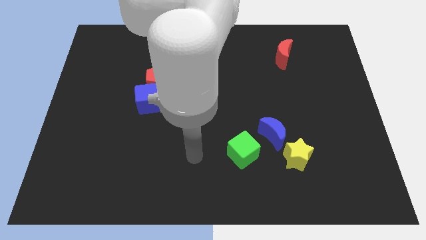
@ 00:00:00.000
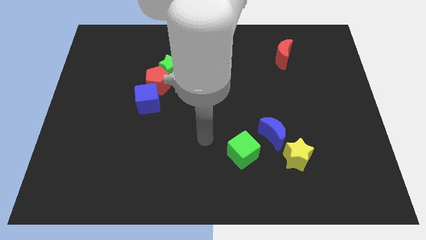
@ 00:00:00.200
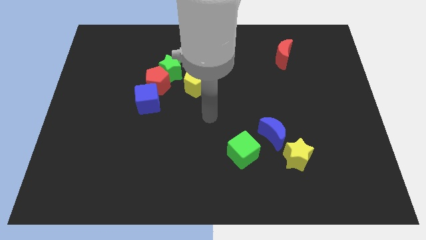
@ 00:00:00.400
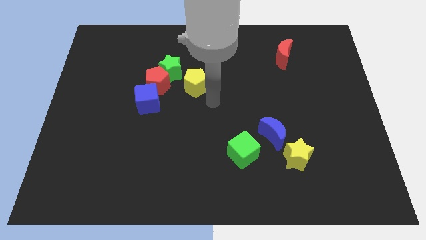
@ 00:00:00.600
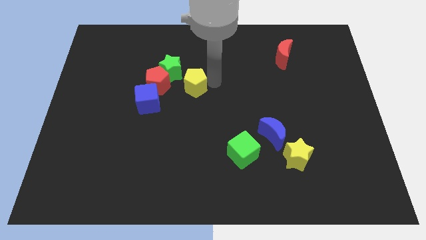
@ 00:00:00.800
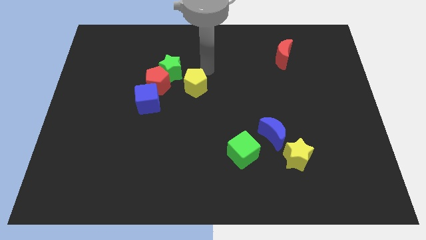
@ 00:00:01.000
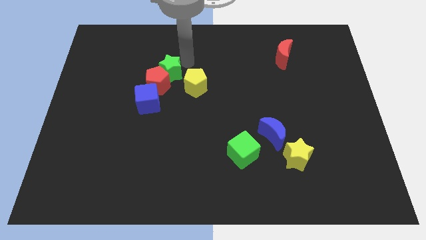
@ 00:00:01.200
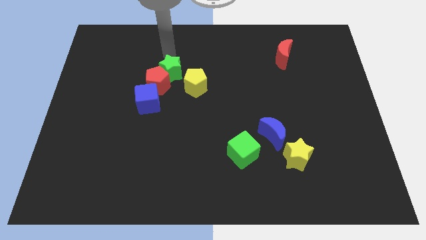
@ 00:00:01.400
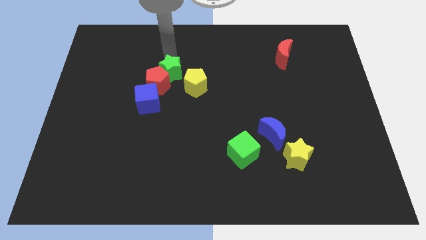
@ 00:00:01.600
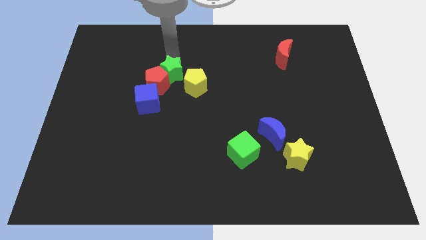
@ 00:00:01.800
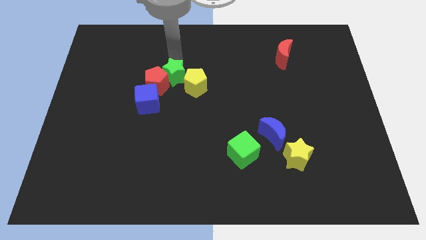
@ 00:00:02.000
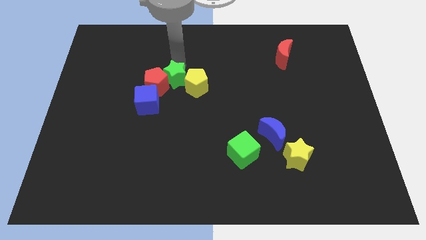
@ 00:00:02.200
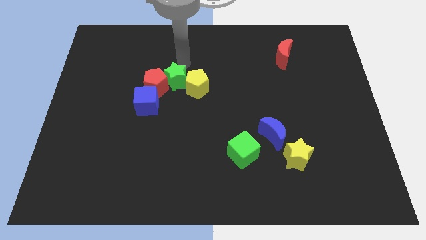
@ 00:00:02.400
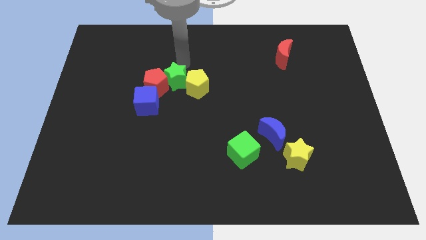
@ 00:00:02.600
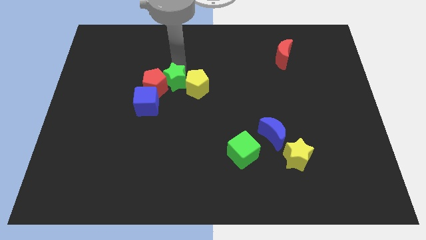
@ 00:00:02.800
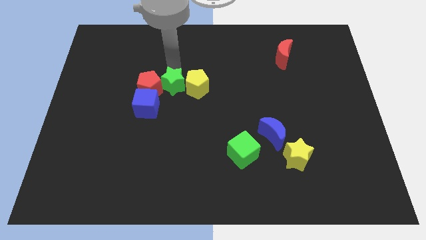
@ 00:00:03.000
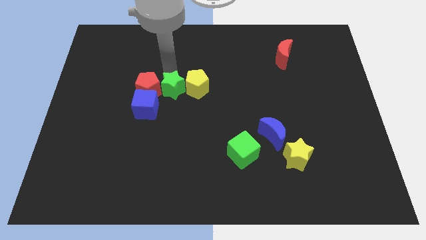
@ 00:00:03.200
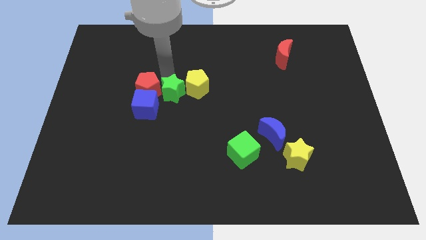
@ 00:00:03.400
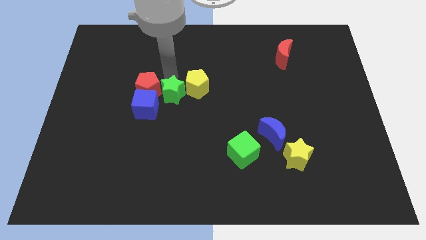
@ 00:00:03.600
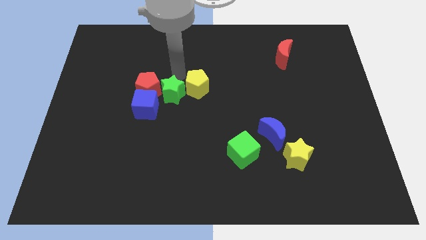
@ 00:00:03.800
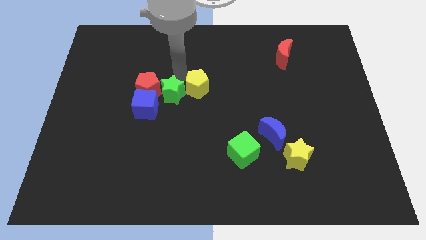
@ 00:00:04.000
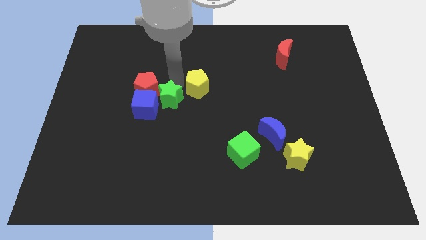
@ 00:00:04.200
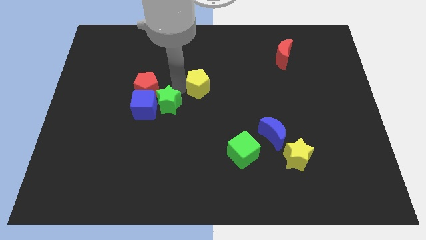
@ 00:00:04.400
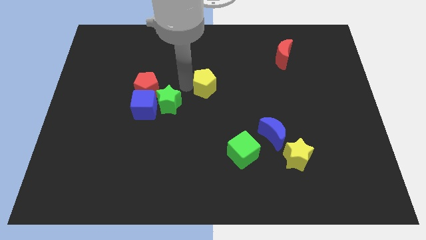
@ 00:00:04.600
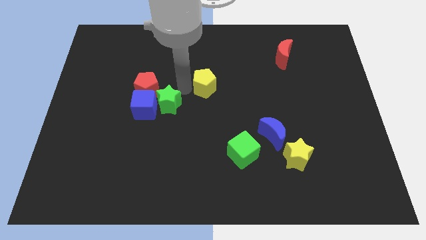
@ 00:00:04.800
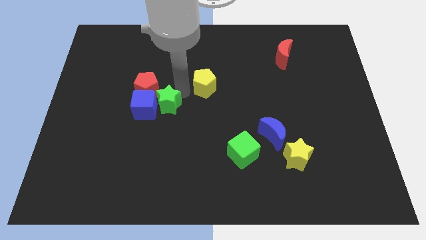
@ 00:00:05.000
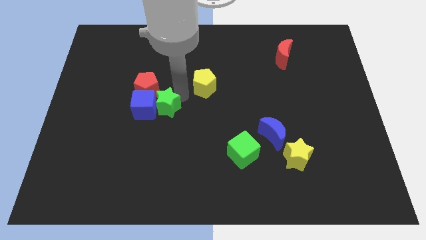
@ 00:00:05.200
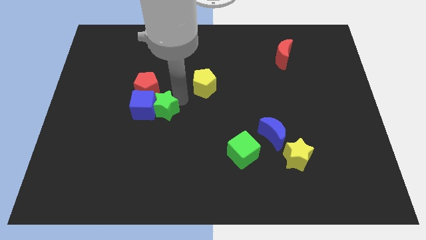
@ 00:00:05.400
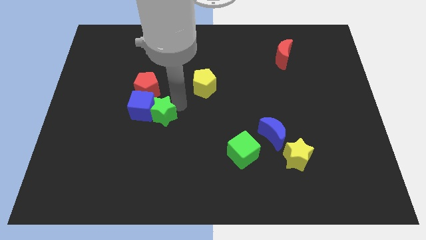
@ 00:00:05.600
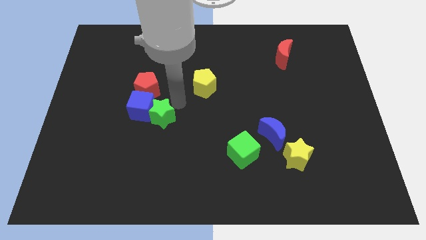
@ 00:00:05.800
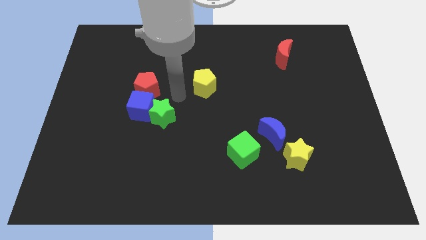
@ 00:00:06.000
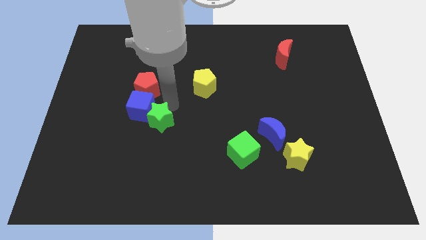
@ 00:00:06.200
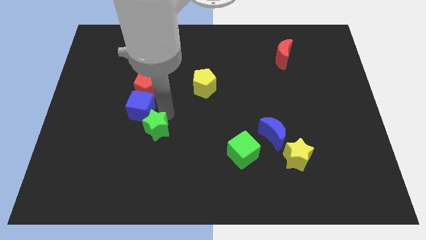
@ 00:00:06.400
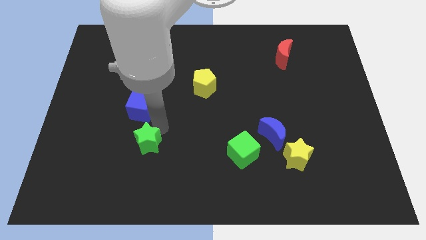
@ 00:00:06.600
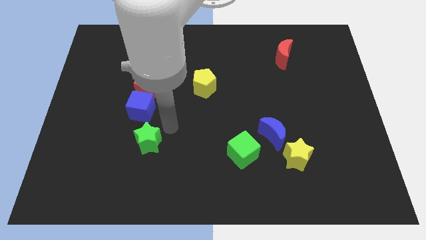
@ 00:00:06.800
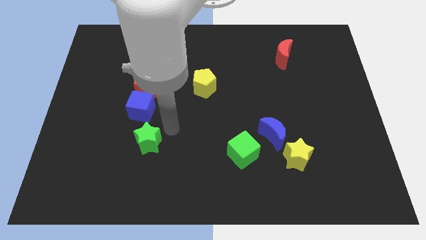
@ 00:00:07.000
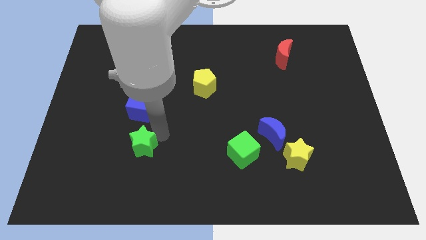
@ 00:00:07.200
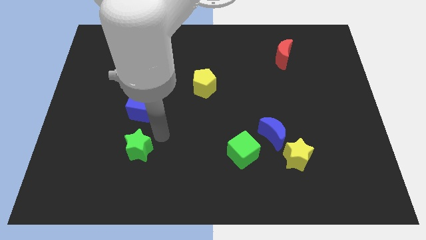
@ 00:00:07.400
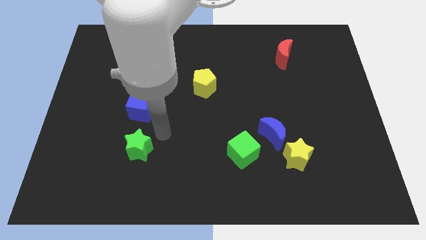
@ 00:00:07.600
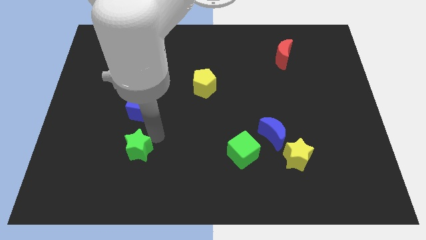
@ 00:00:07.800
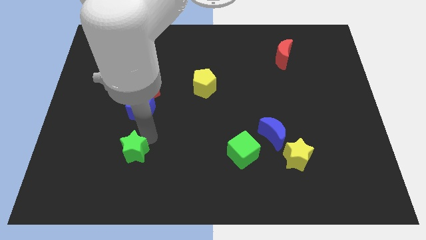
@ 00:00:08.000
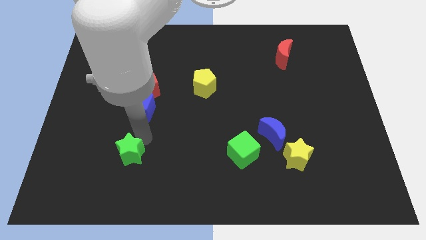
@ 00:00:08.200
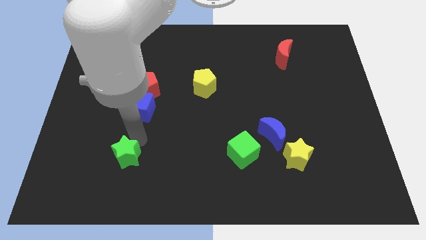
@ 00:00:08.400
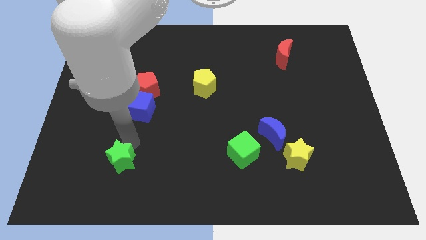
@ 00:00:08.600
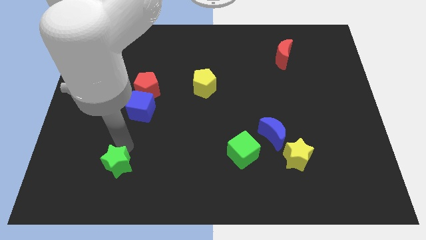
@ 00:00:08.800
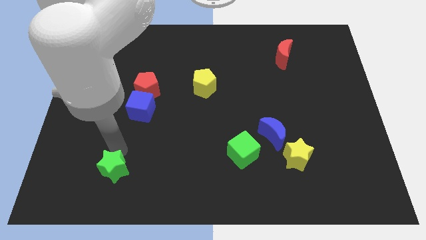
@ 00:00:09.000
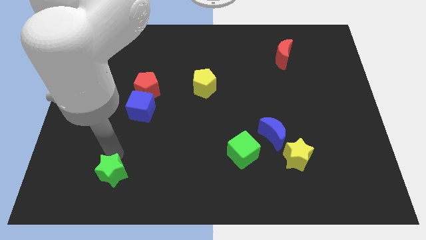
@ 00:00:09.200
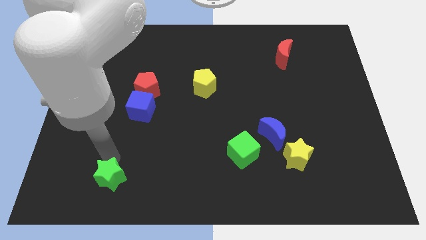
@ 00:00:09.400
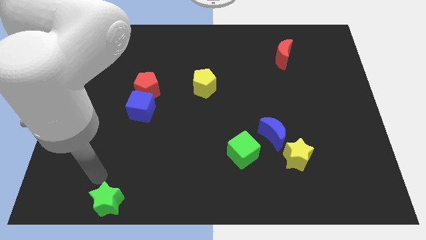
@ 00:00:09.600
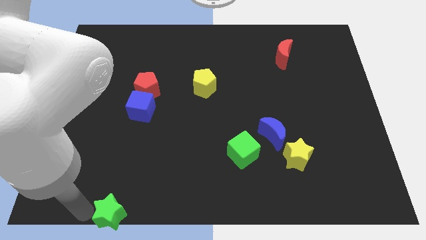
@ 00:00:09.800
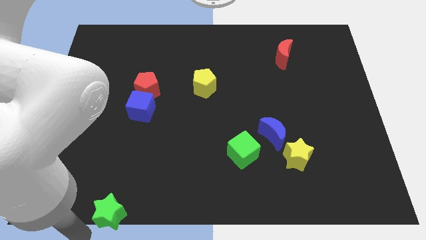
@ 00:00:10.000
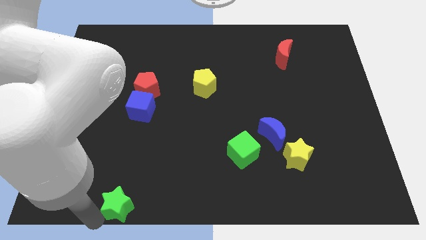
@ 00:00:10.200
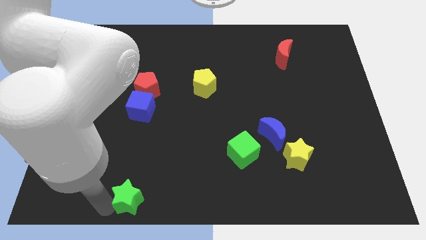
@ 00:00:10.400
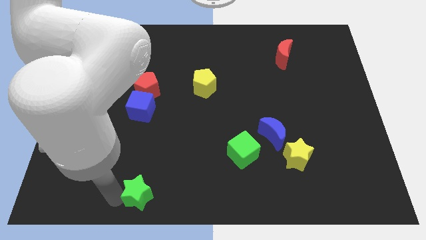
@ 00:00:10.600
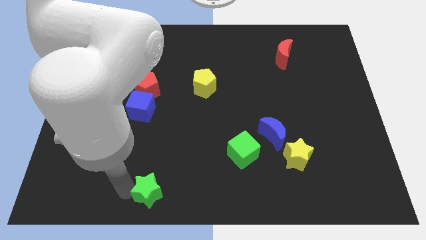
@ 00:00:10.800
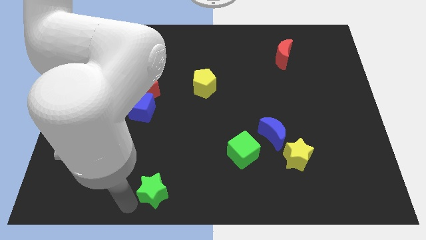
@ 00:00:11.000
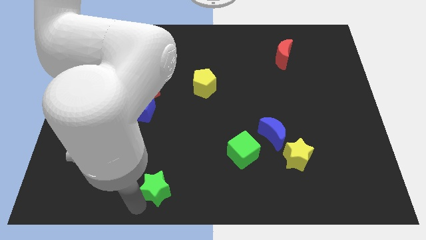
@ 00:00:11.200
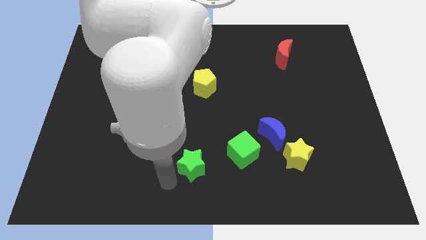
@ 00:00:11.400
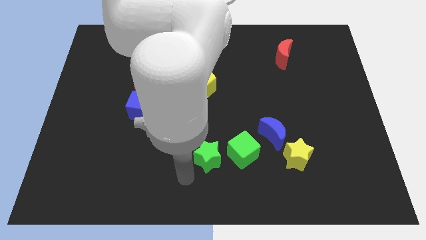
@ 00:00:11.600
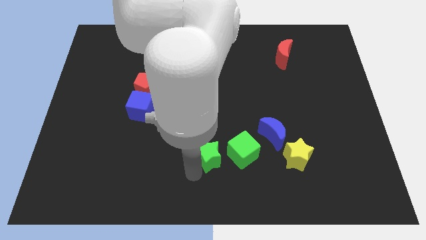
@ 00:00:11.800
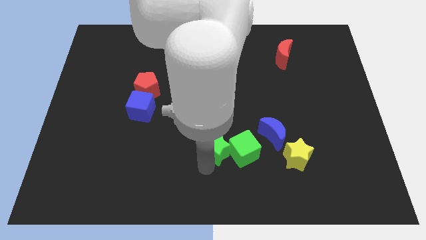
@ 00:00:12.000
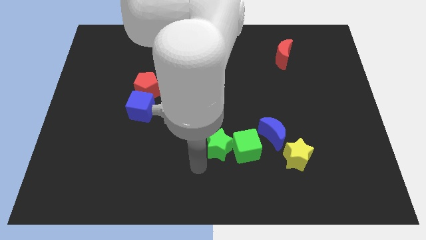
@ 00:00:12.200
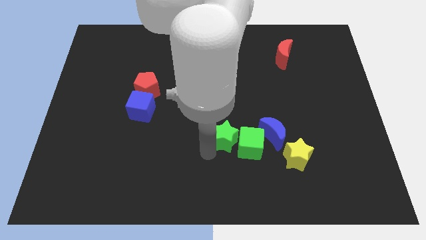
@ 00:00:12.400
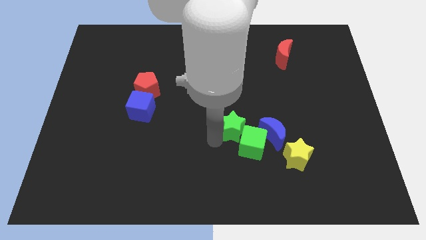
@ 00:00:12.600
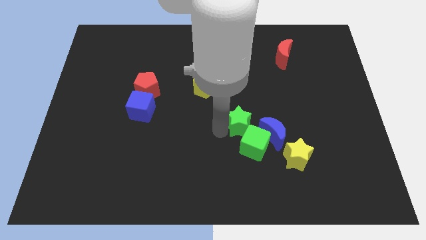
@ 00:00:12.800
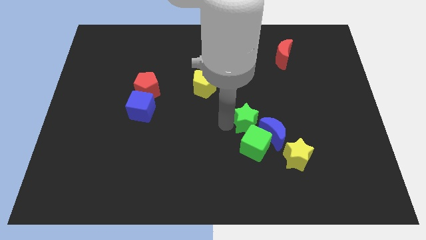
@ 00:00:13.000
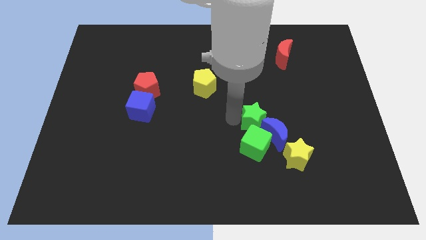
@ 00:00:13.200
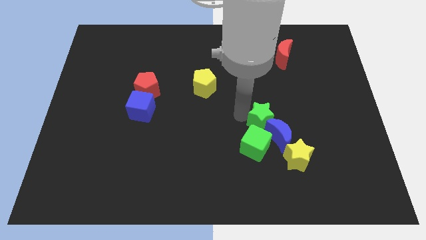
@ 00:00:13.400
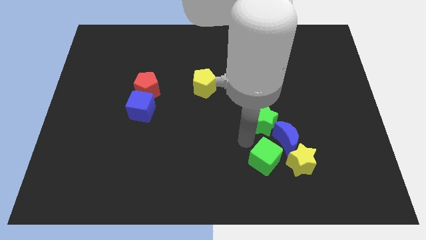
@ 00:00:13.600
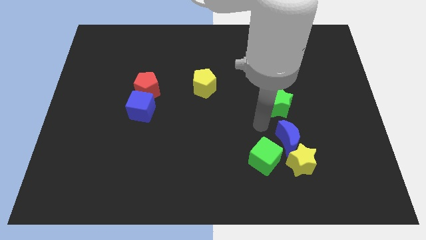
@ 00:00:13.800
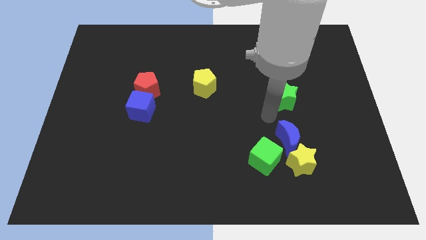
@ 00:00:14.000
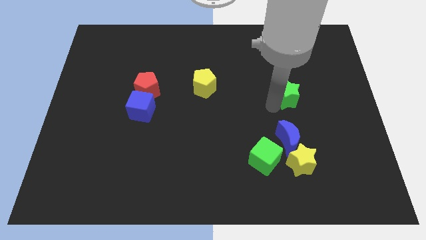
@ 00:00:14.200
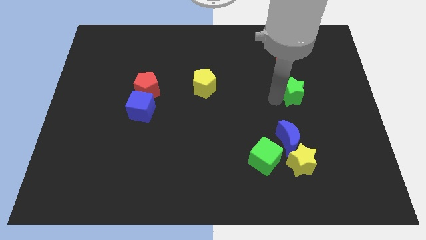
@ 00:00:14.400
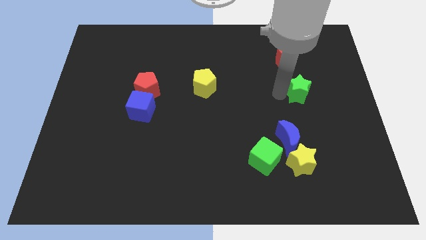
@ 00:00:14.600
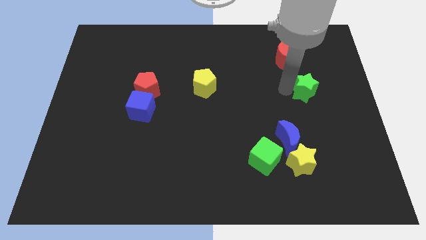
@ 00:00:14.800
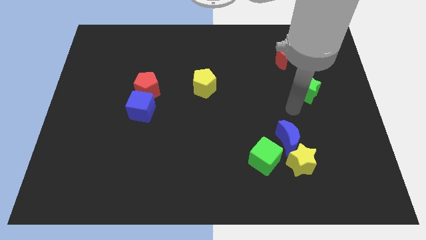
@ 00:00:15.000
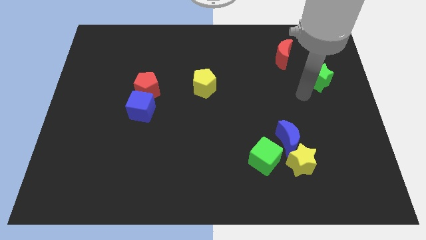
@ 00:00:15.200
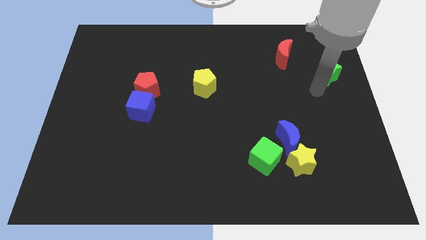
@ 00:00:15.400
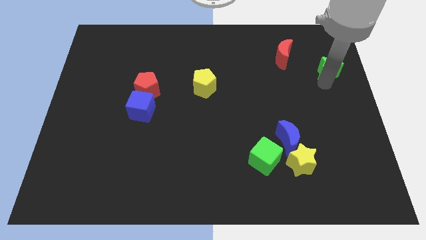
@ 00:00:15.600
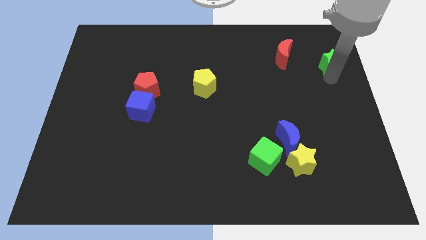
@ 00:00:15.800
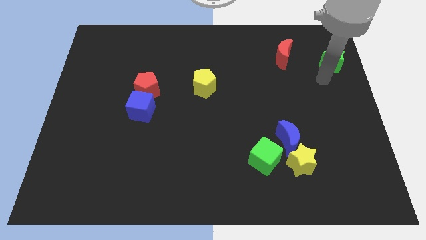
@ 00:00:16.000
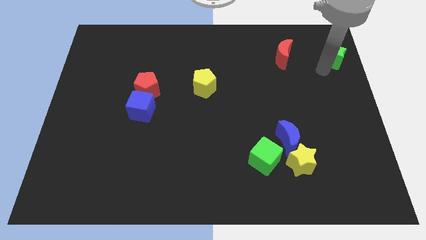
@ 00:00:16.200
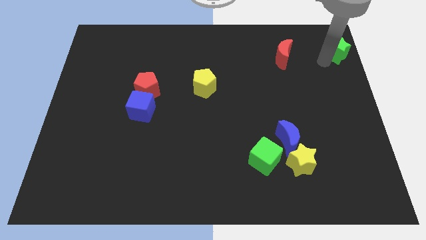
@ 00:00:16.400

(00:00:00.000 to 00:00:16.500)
slide the green star to the top right corner
